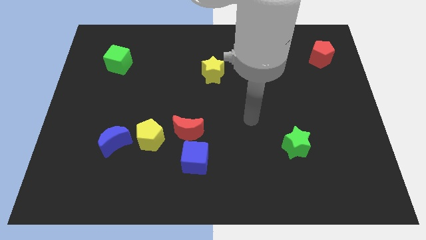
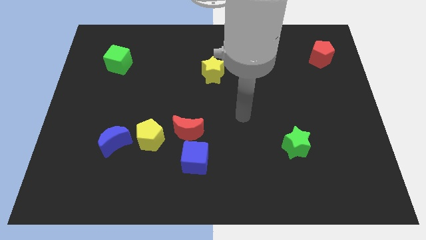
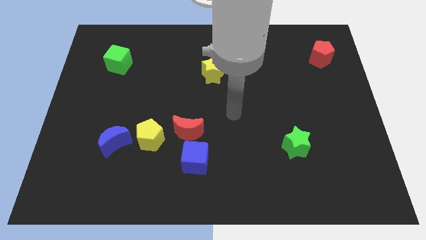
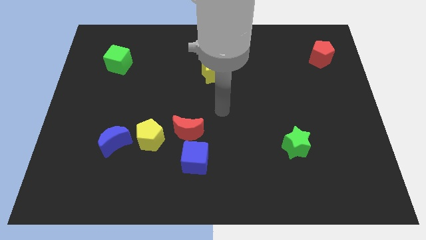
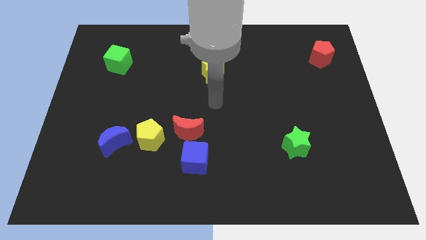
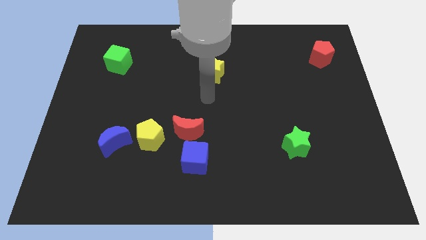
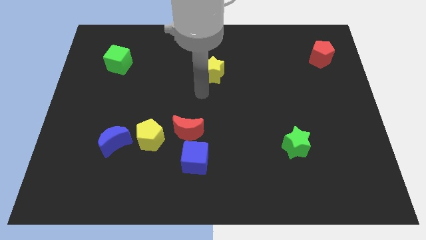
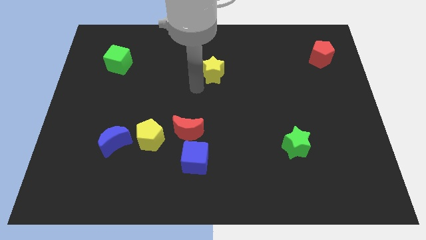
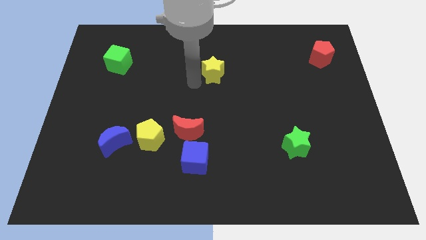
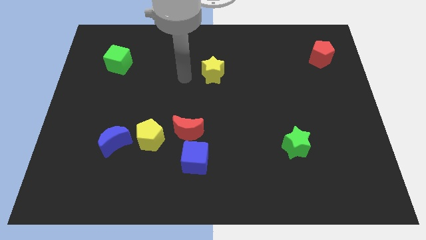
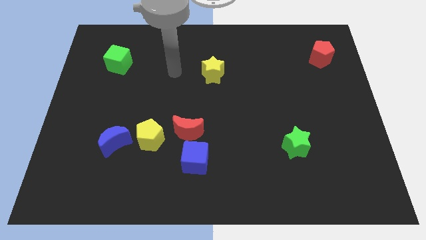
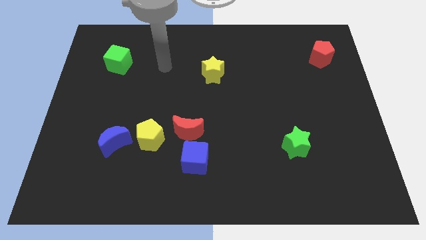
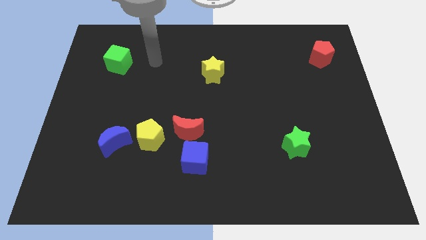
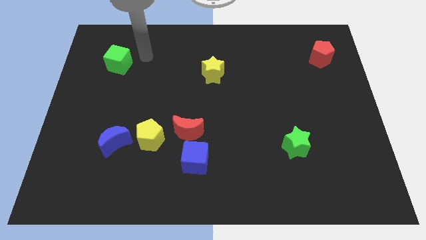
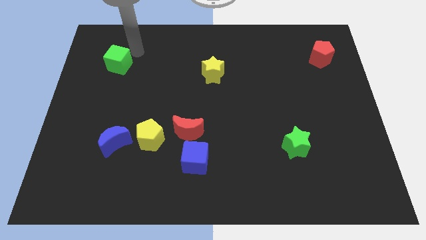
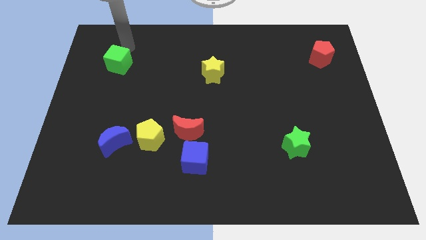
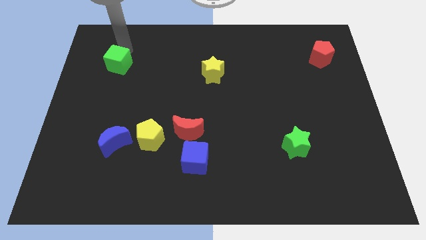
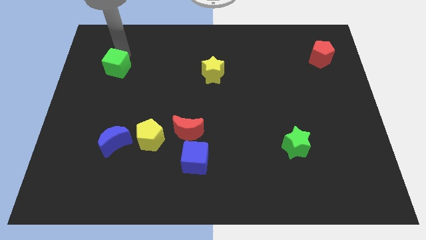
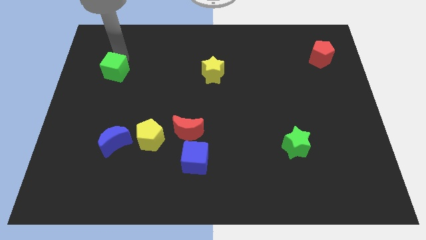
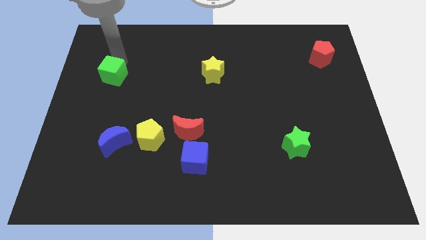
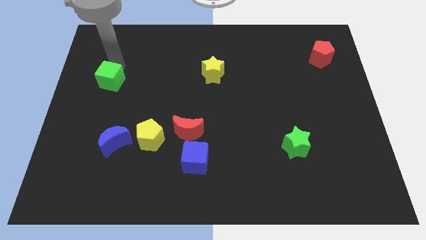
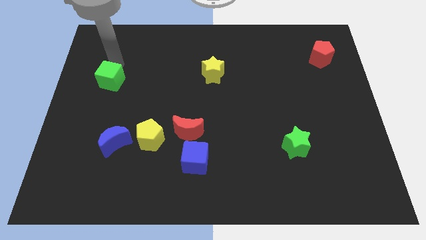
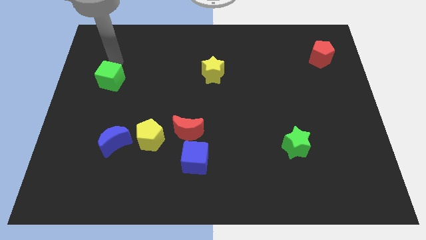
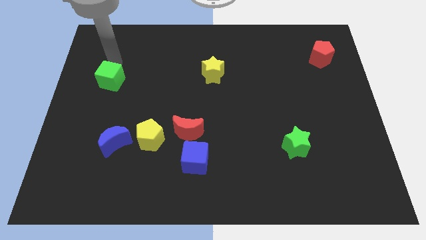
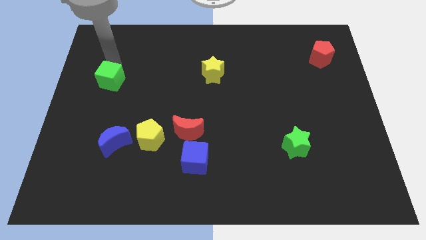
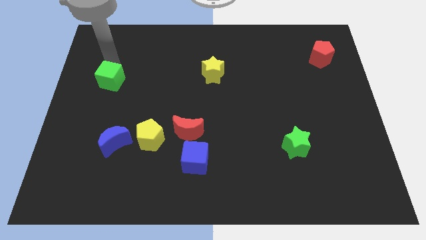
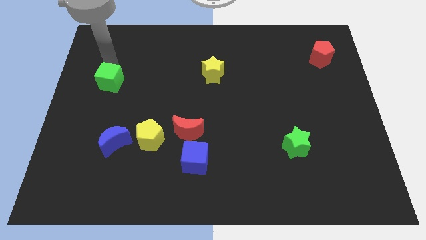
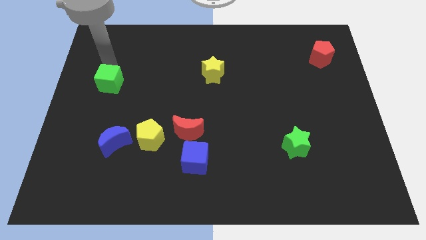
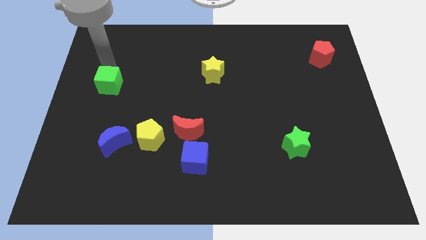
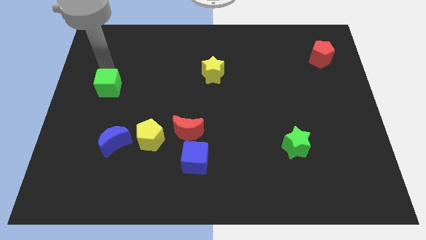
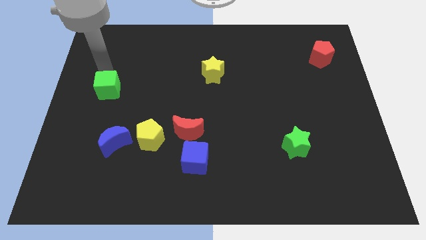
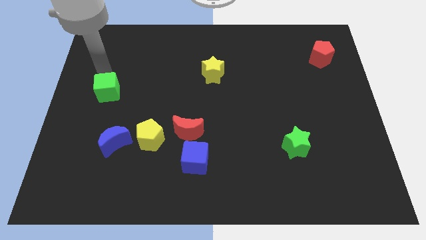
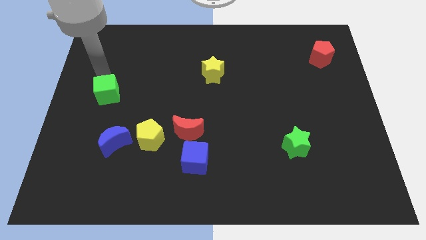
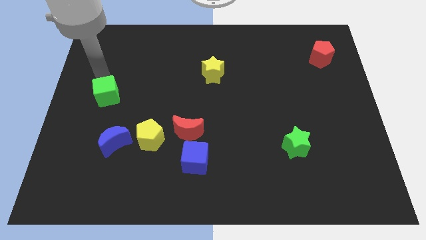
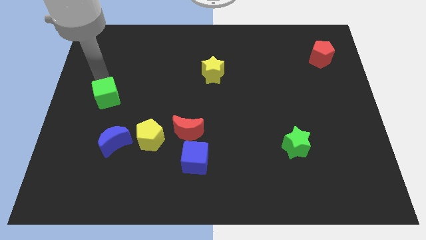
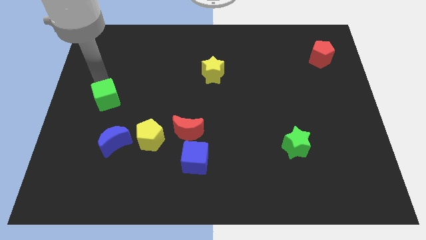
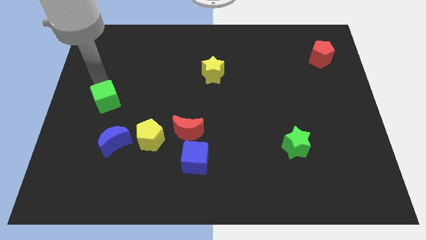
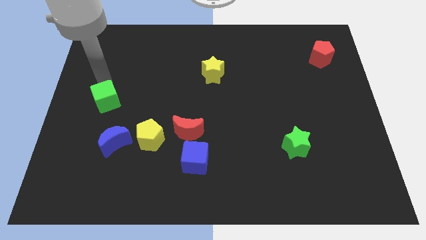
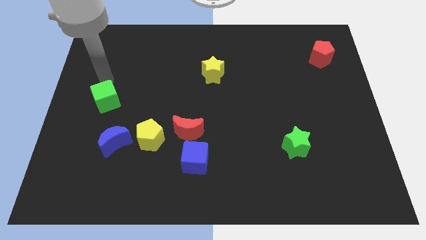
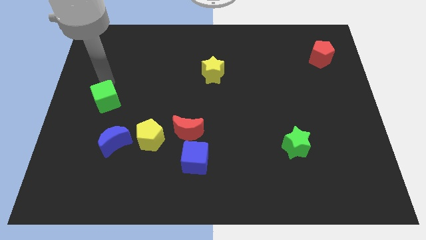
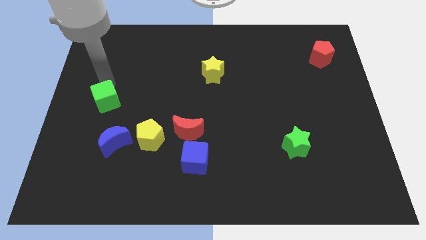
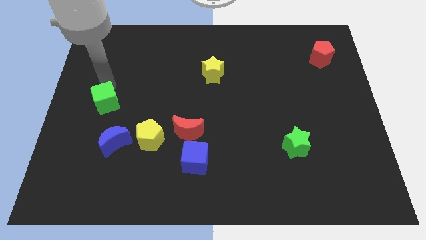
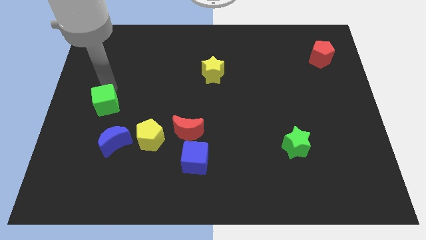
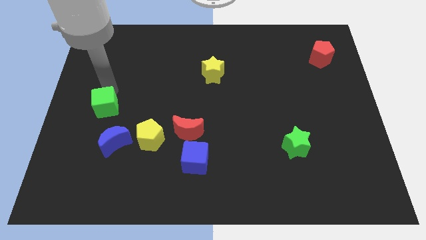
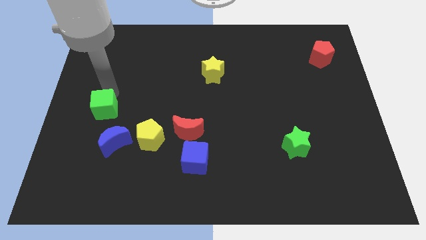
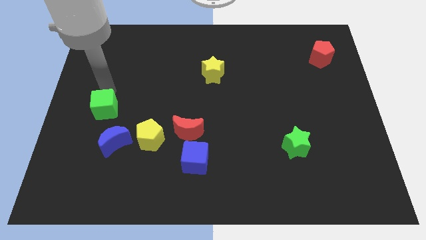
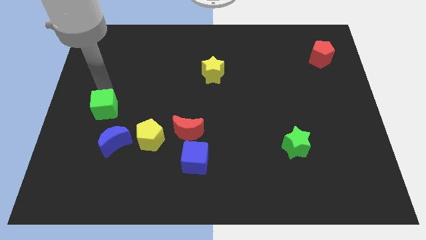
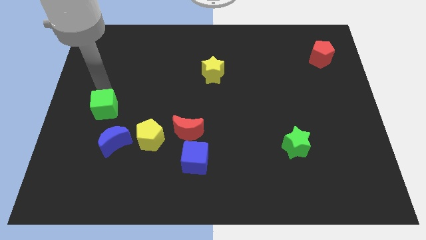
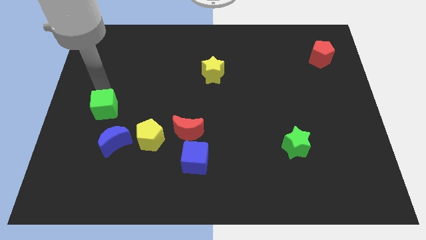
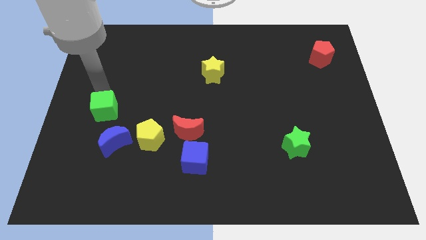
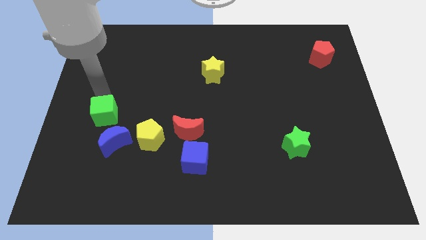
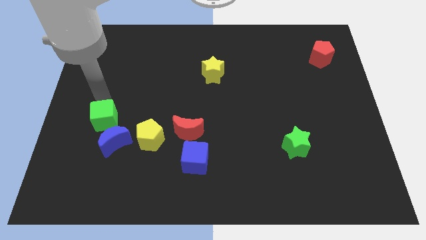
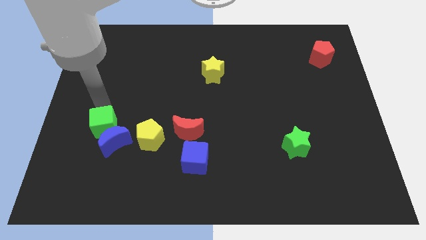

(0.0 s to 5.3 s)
move the green cube close to the blue moon

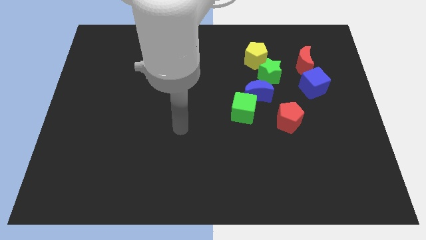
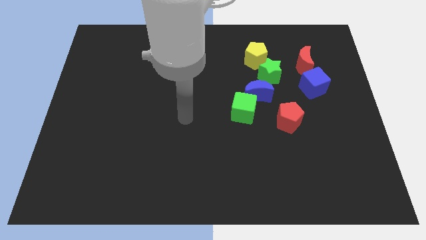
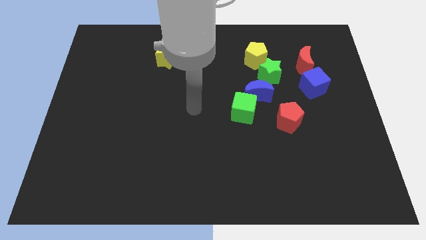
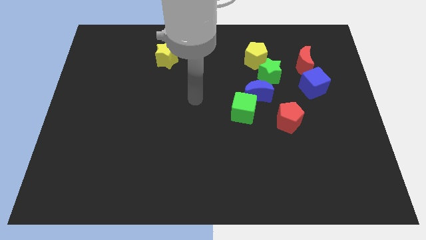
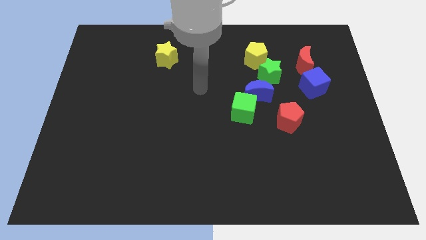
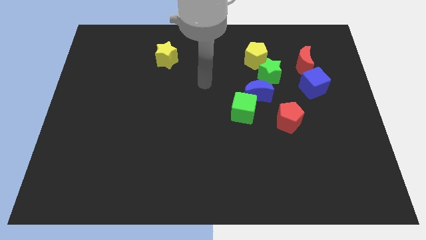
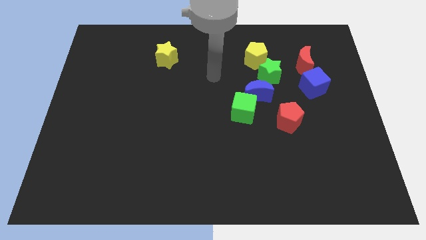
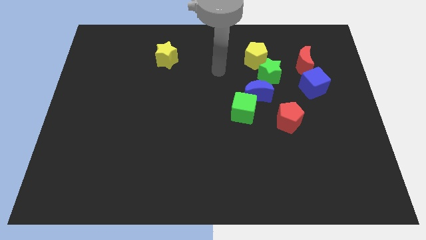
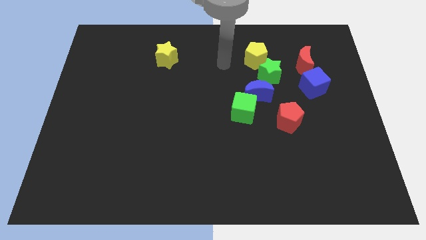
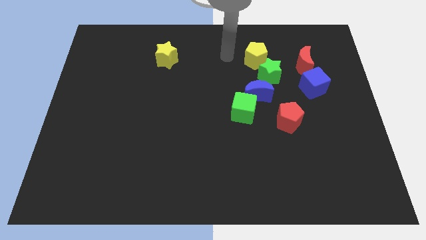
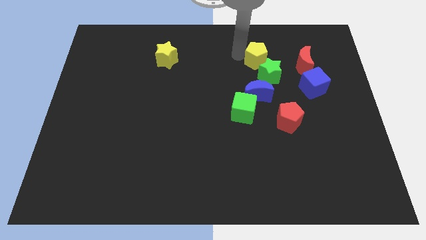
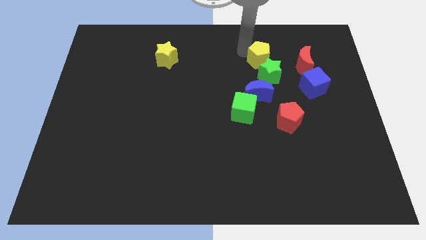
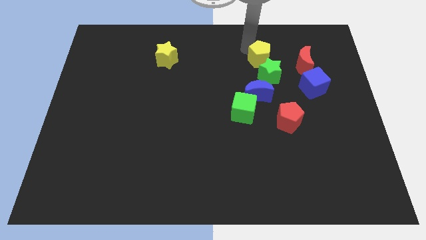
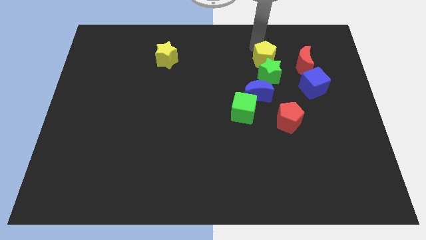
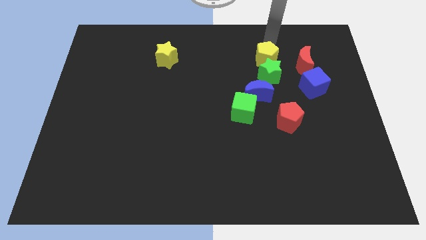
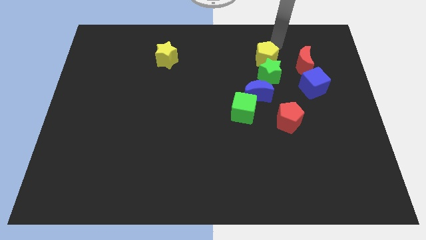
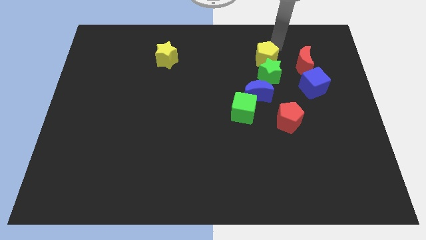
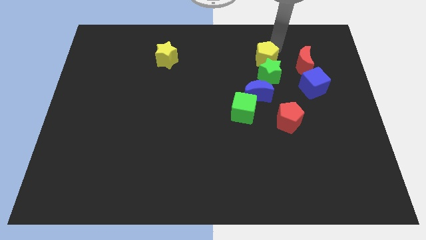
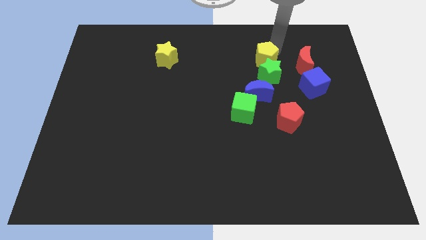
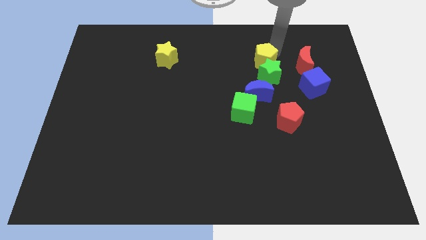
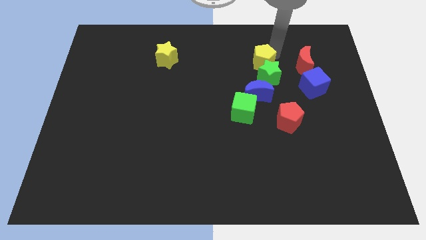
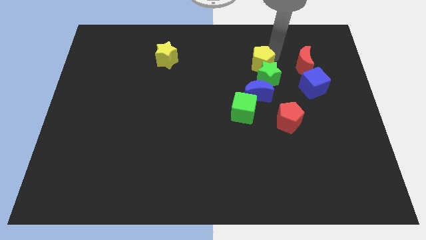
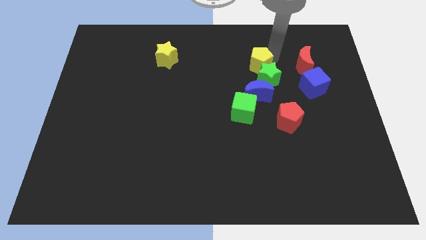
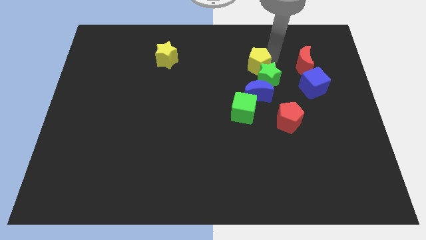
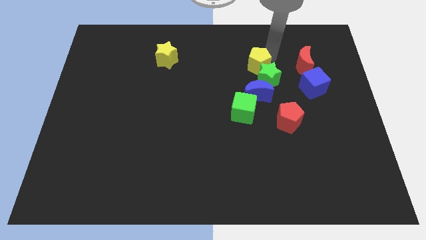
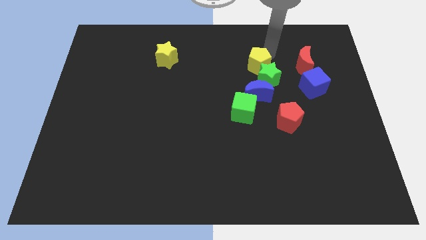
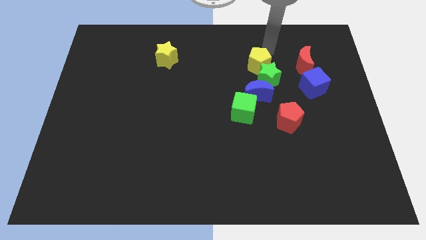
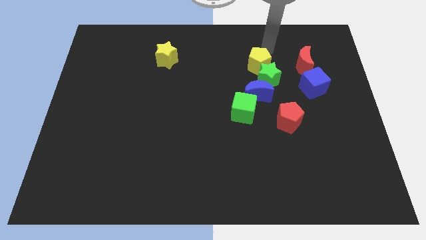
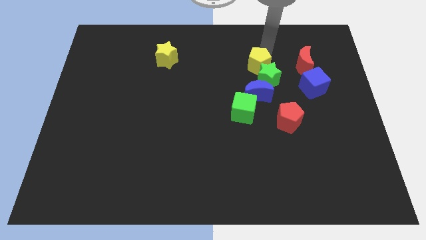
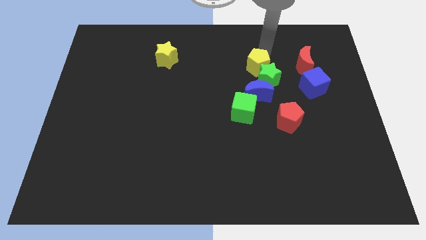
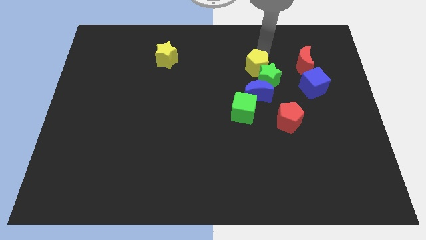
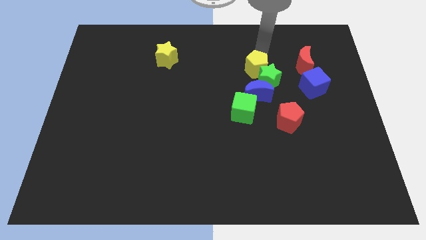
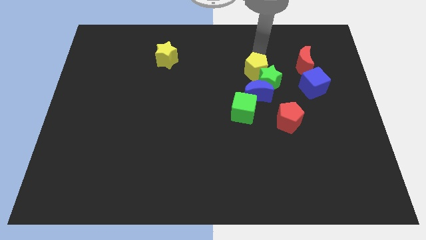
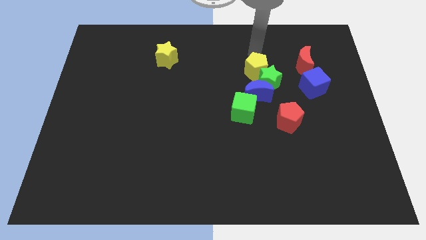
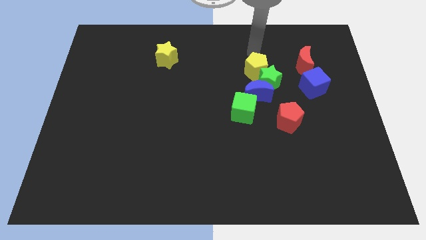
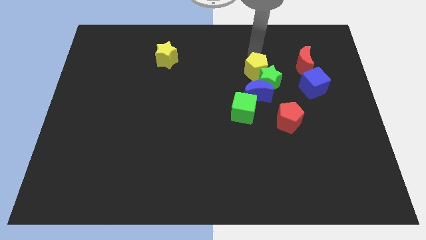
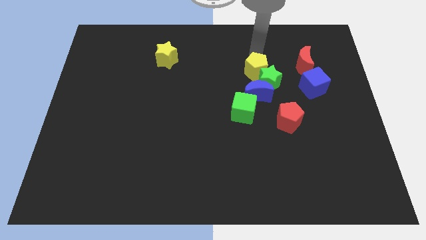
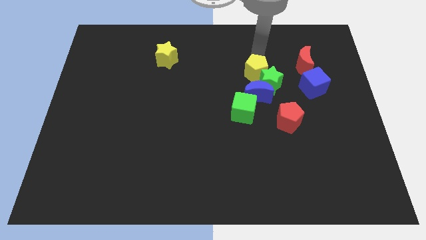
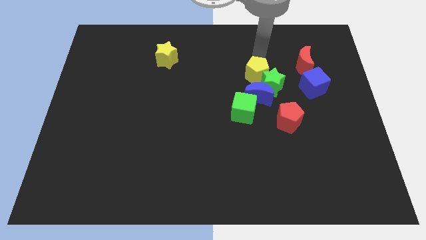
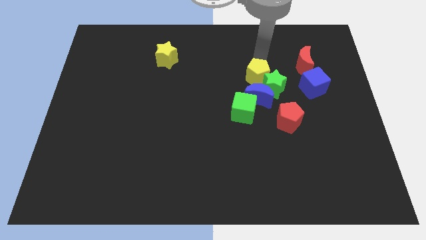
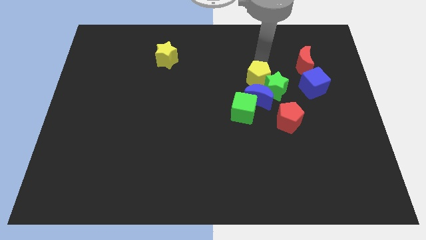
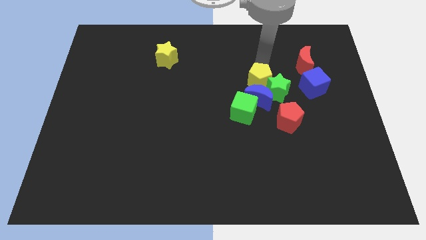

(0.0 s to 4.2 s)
push the yellow pentagon next to the blue moon
